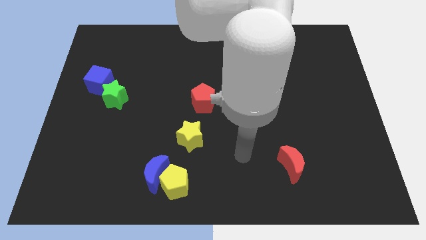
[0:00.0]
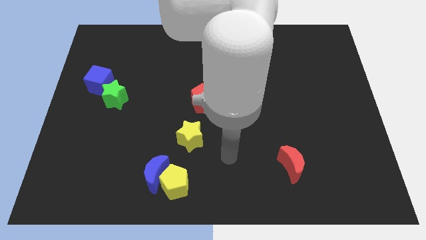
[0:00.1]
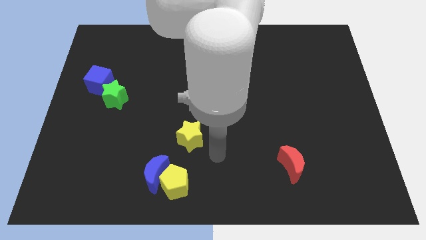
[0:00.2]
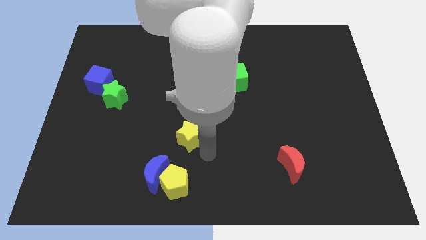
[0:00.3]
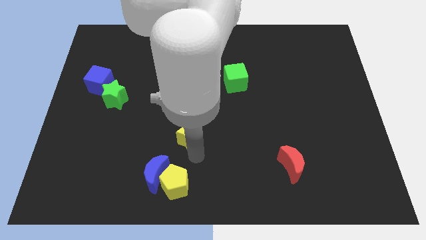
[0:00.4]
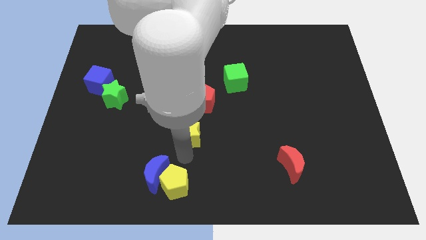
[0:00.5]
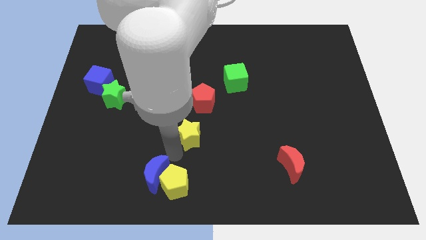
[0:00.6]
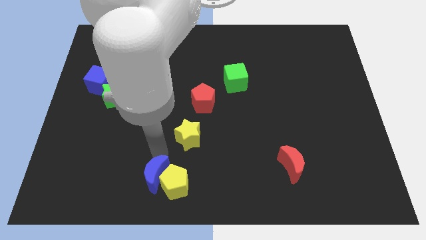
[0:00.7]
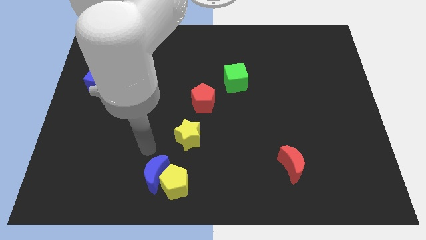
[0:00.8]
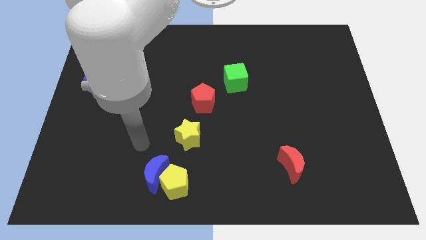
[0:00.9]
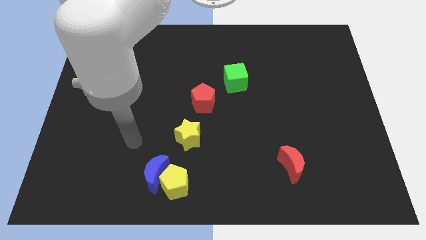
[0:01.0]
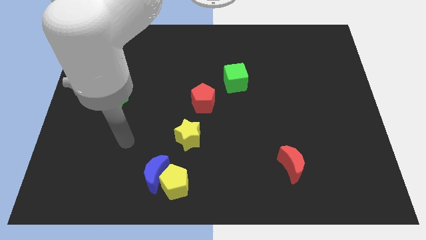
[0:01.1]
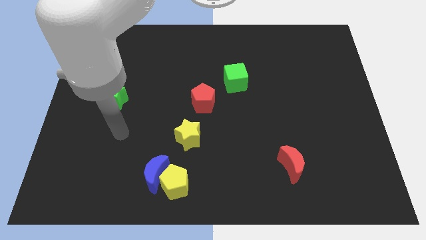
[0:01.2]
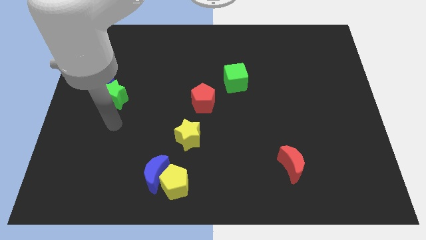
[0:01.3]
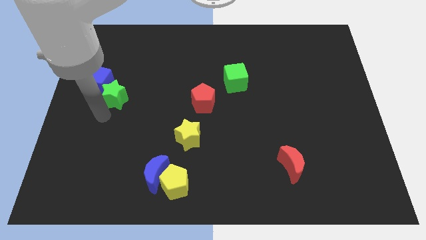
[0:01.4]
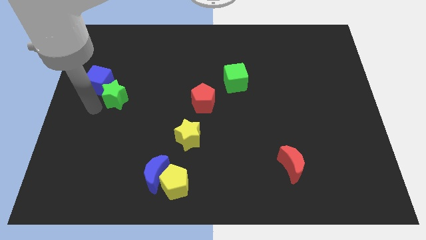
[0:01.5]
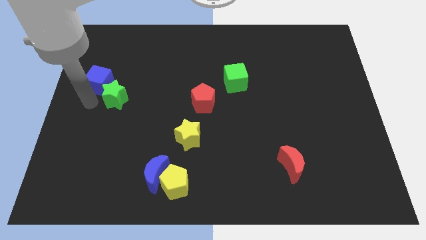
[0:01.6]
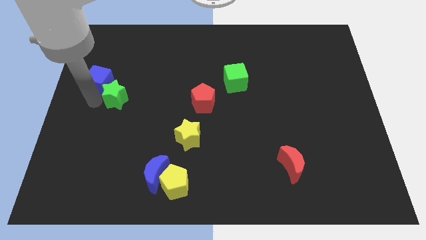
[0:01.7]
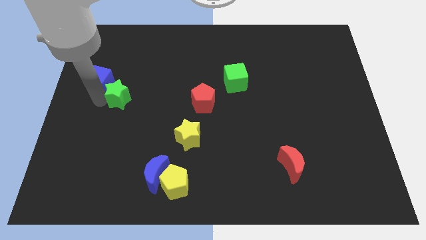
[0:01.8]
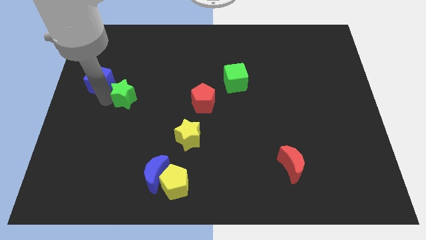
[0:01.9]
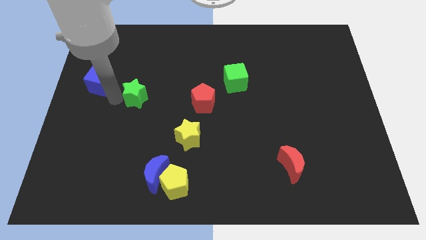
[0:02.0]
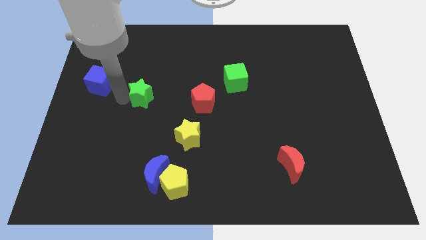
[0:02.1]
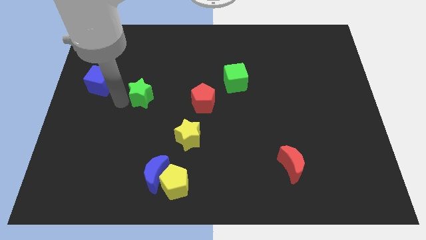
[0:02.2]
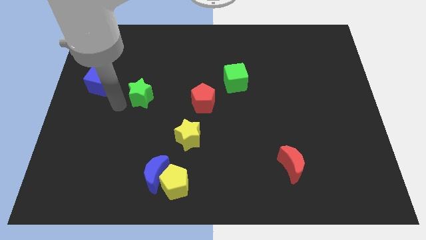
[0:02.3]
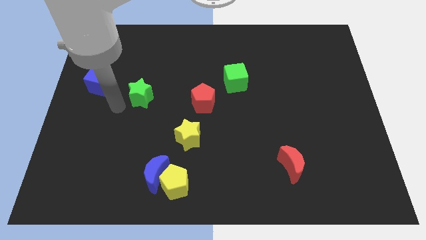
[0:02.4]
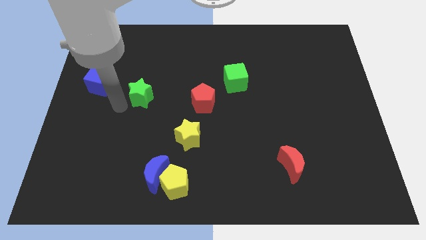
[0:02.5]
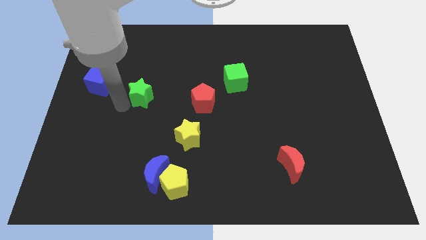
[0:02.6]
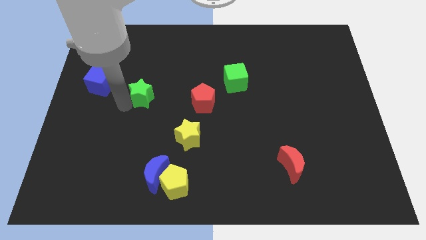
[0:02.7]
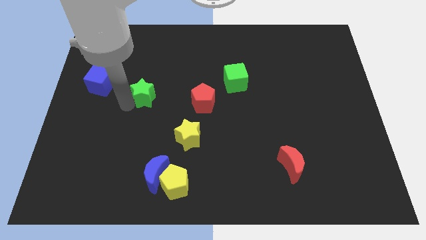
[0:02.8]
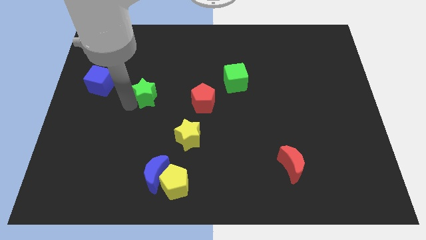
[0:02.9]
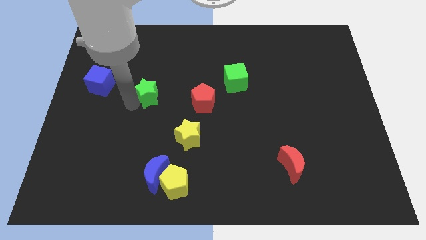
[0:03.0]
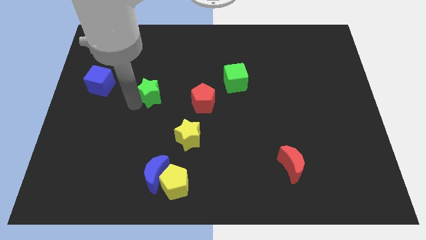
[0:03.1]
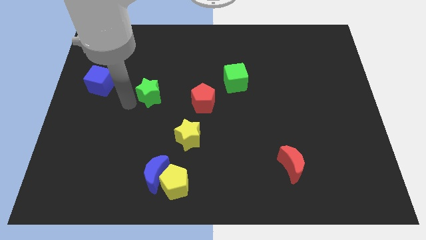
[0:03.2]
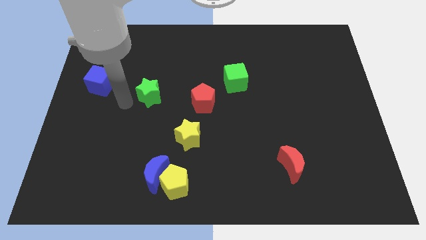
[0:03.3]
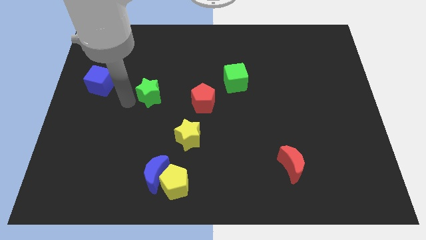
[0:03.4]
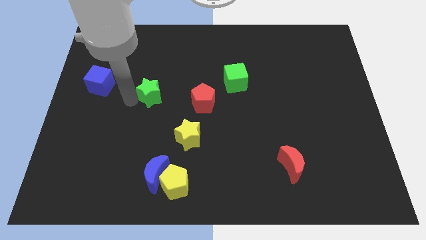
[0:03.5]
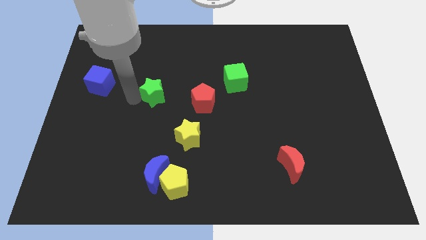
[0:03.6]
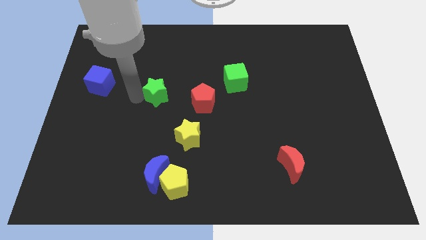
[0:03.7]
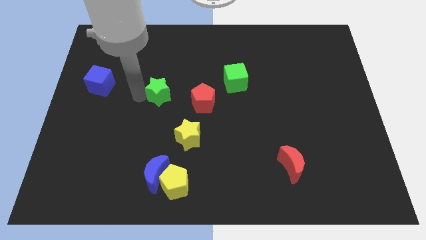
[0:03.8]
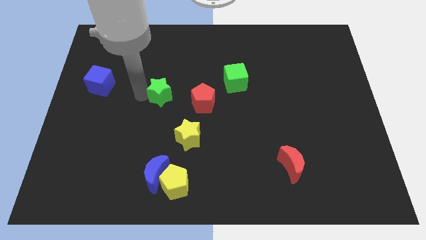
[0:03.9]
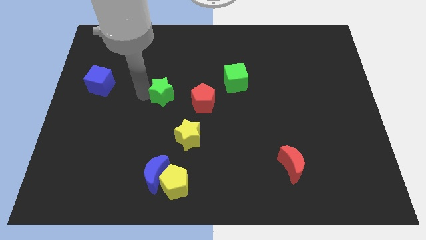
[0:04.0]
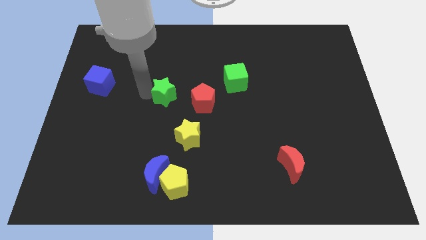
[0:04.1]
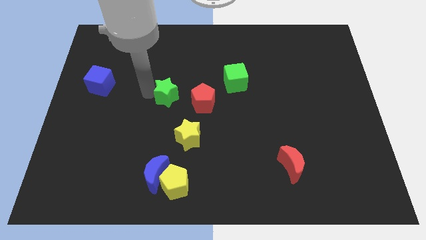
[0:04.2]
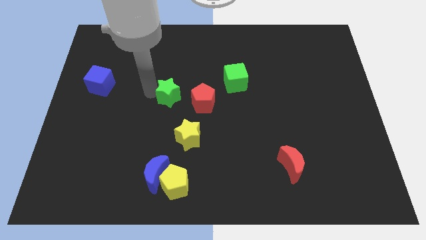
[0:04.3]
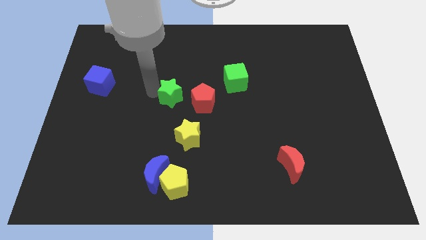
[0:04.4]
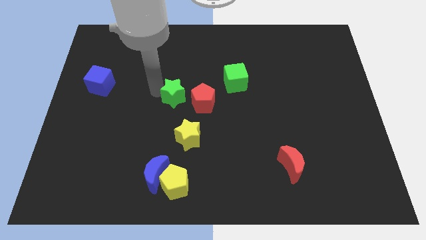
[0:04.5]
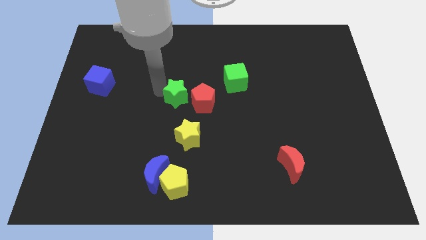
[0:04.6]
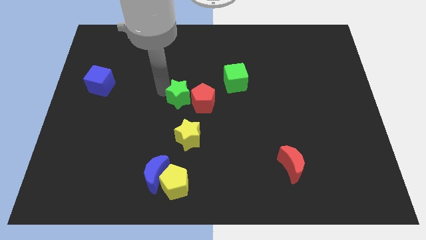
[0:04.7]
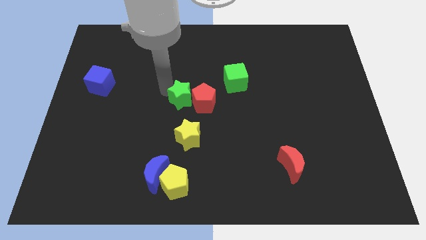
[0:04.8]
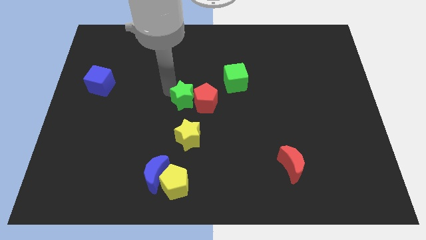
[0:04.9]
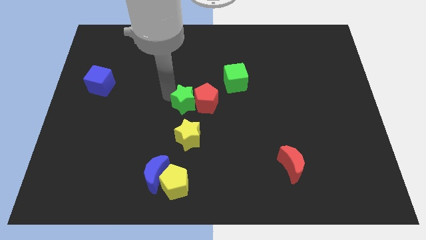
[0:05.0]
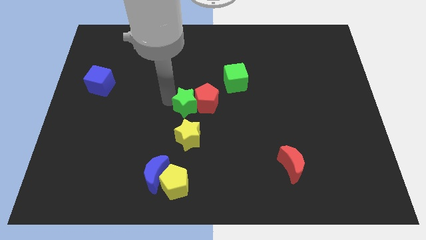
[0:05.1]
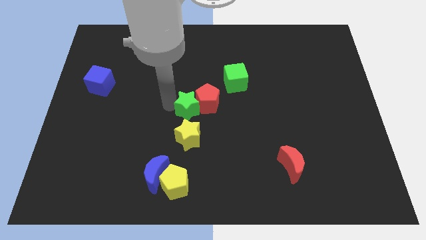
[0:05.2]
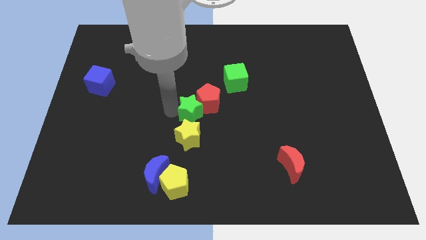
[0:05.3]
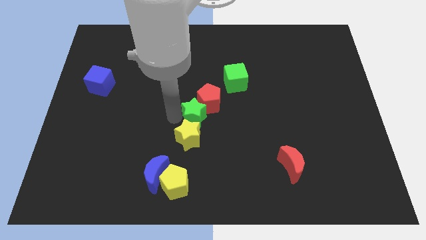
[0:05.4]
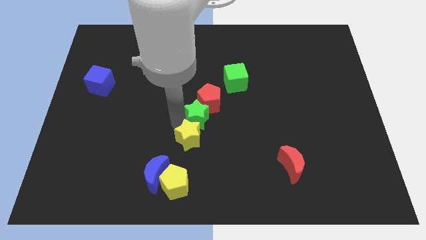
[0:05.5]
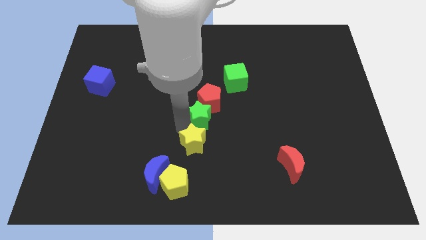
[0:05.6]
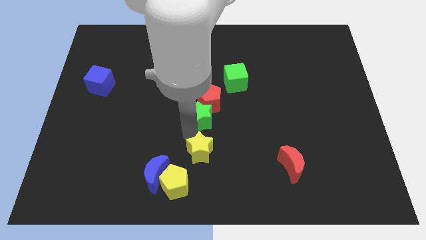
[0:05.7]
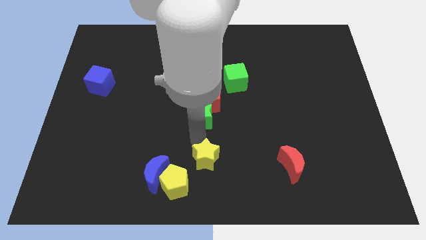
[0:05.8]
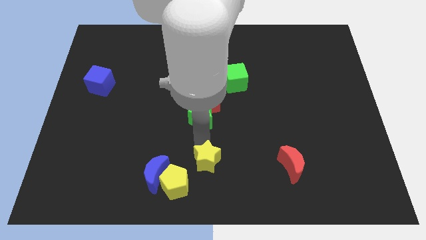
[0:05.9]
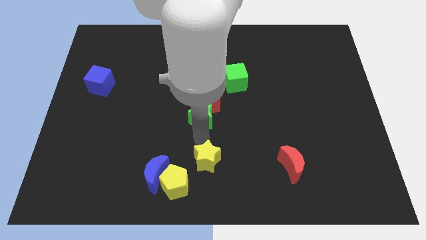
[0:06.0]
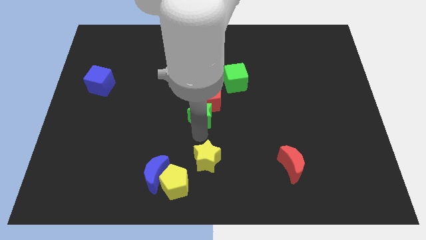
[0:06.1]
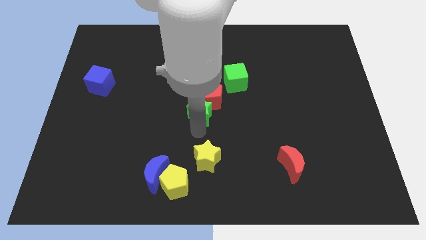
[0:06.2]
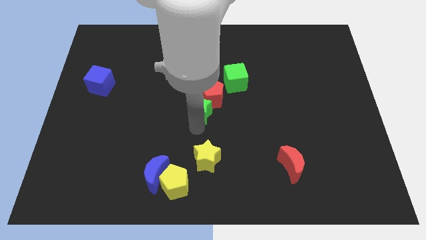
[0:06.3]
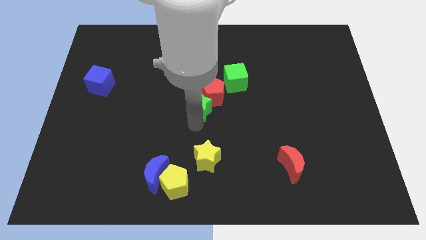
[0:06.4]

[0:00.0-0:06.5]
move the green star to the right

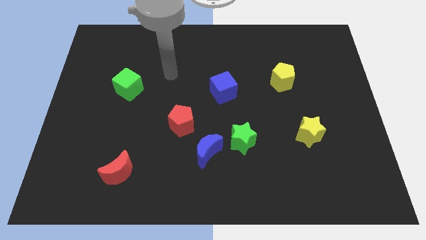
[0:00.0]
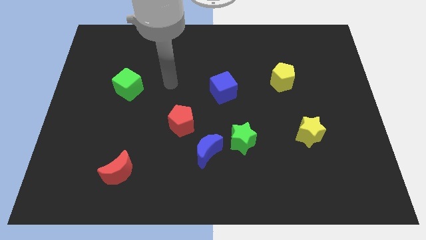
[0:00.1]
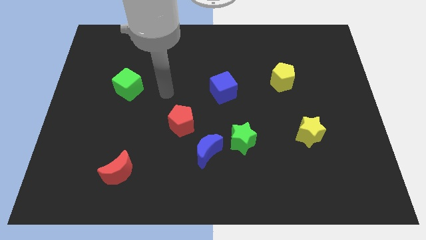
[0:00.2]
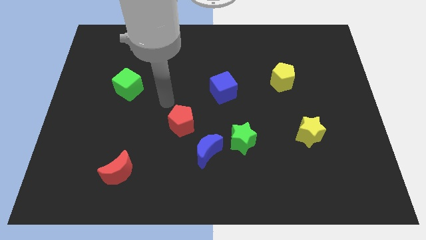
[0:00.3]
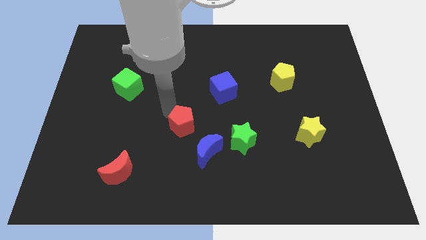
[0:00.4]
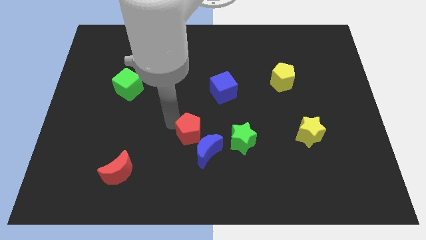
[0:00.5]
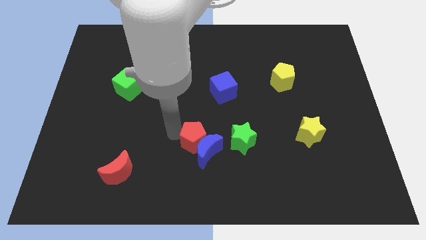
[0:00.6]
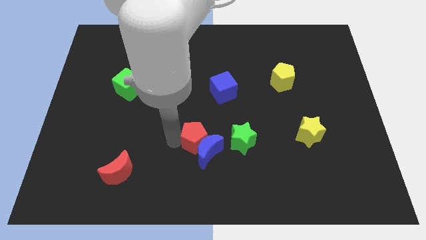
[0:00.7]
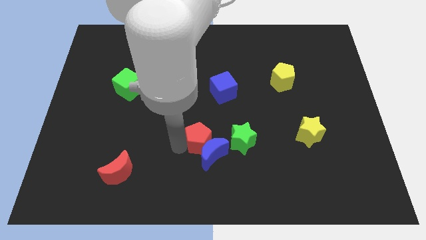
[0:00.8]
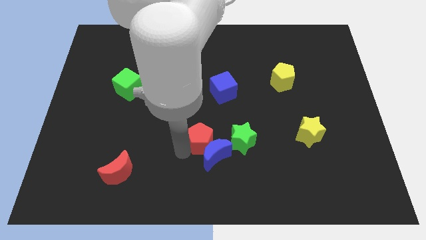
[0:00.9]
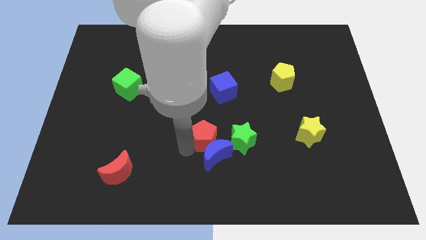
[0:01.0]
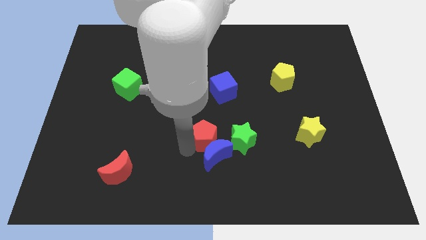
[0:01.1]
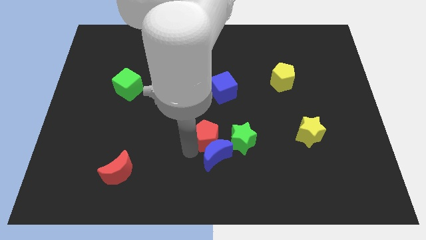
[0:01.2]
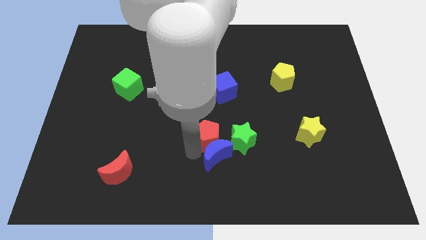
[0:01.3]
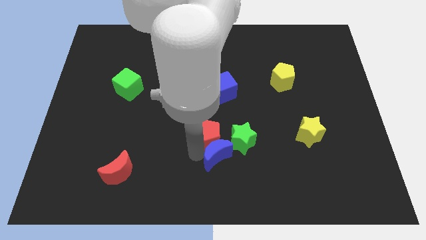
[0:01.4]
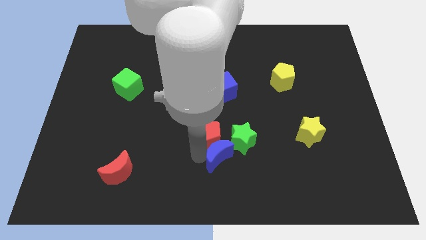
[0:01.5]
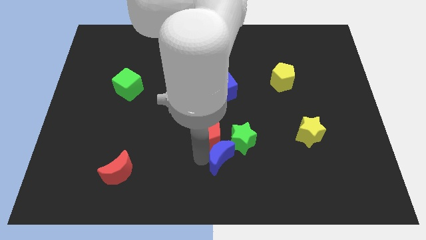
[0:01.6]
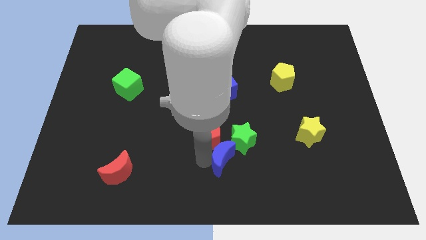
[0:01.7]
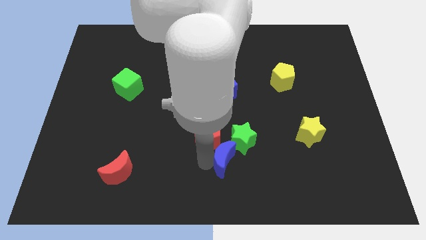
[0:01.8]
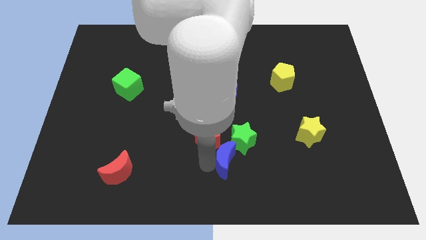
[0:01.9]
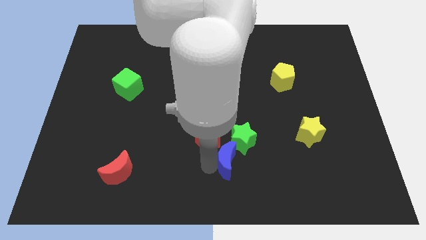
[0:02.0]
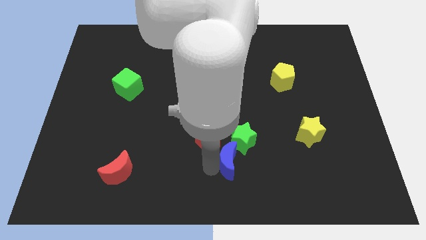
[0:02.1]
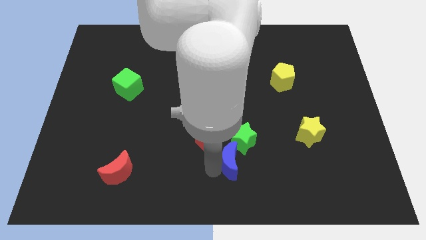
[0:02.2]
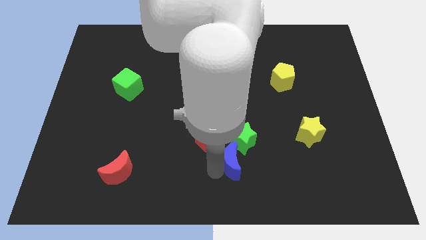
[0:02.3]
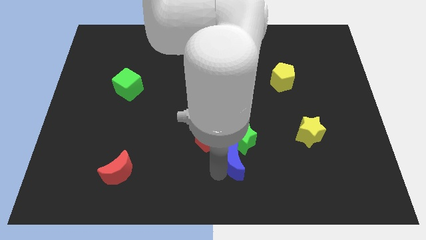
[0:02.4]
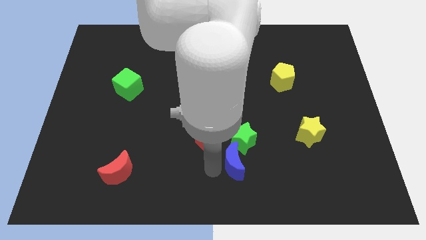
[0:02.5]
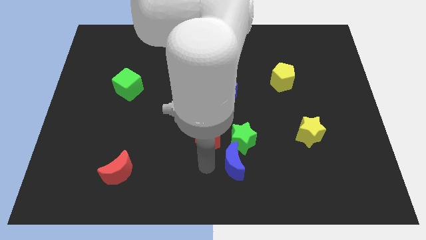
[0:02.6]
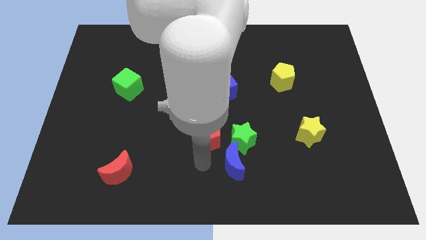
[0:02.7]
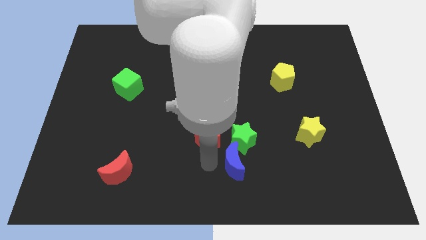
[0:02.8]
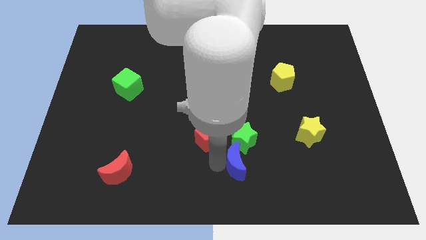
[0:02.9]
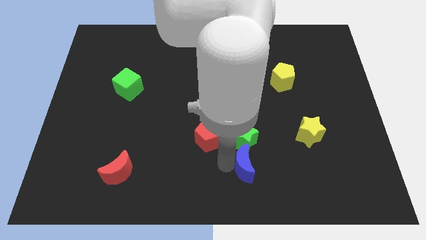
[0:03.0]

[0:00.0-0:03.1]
move the blue moon right a bit
